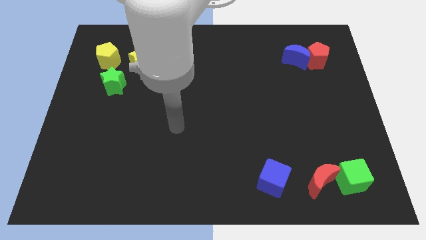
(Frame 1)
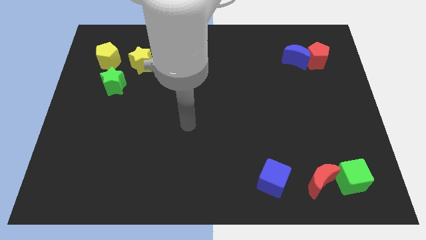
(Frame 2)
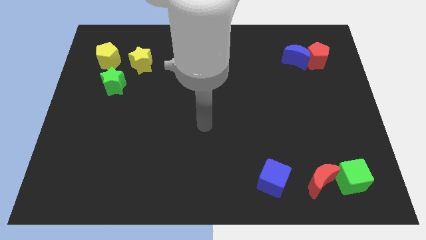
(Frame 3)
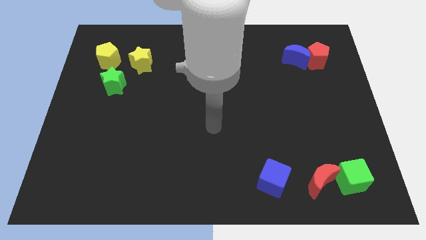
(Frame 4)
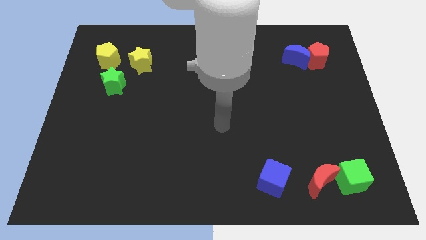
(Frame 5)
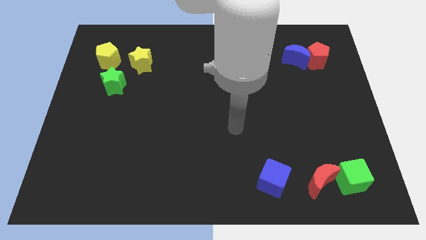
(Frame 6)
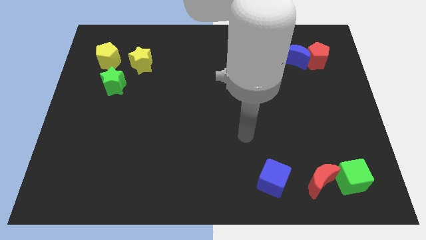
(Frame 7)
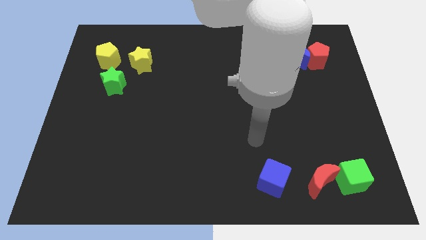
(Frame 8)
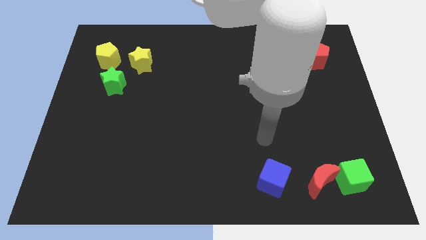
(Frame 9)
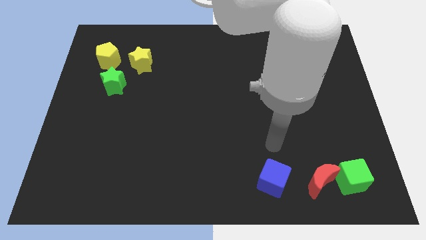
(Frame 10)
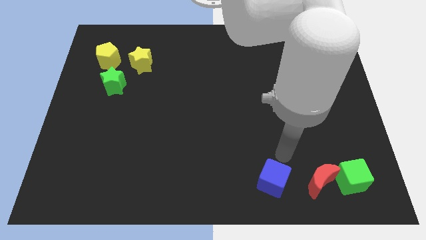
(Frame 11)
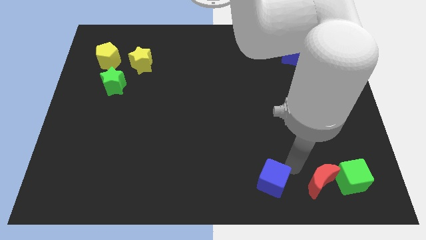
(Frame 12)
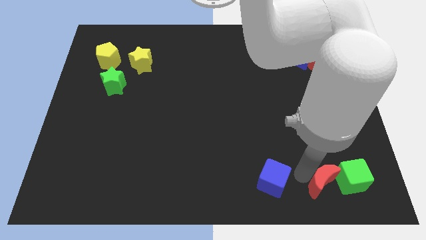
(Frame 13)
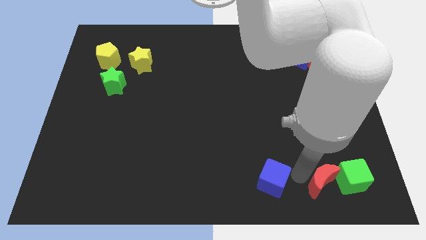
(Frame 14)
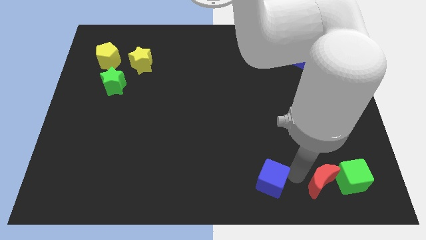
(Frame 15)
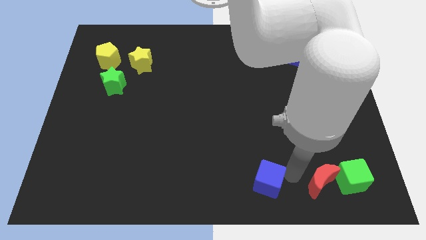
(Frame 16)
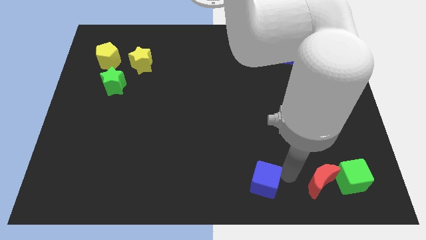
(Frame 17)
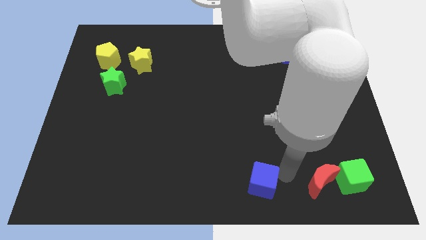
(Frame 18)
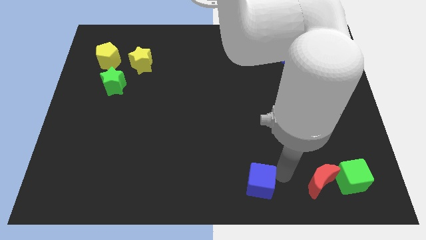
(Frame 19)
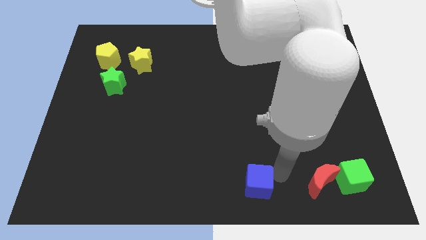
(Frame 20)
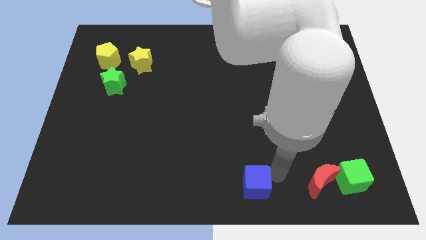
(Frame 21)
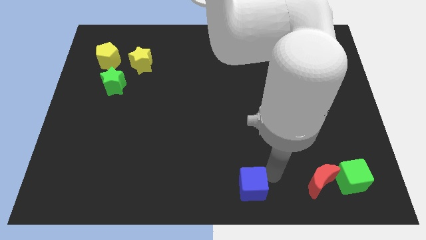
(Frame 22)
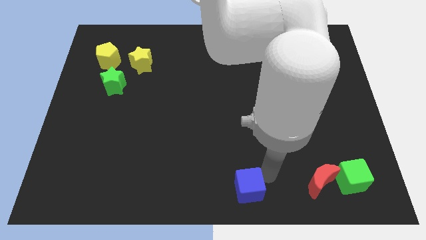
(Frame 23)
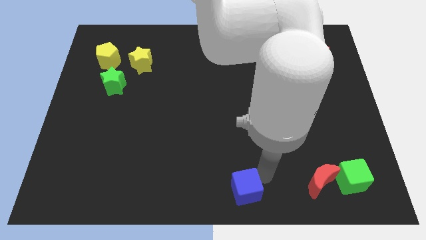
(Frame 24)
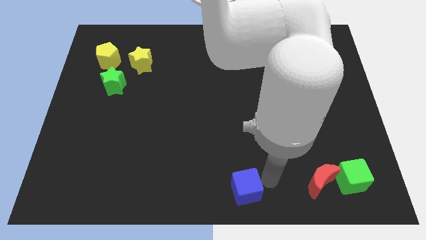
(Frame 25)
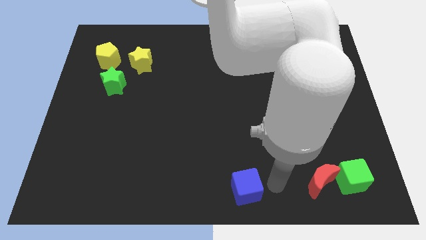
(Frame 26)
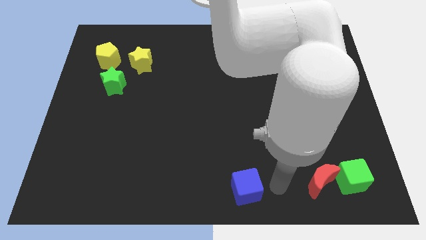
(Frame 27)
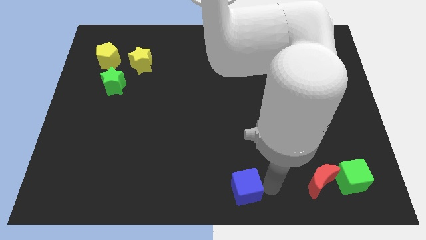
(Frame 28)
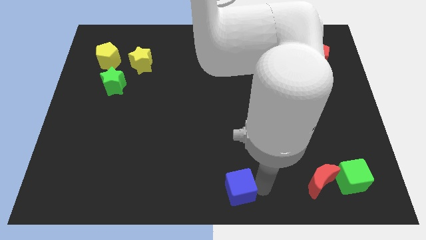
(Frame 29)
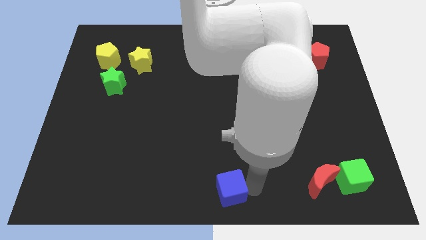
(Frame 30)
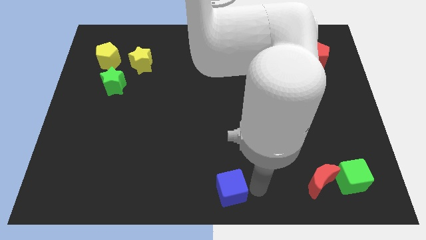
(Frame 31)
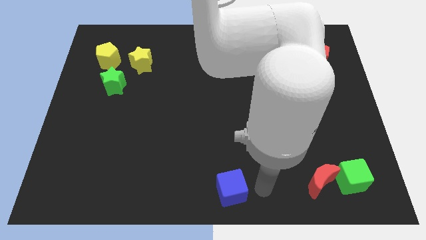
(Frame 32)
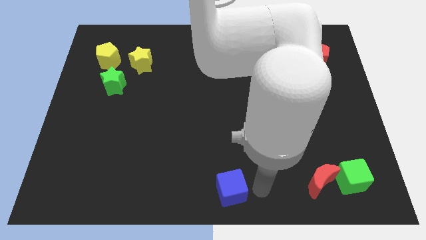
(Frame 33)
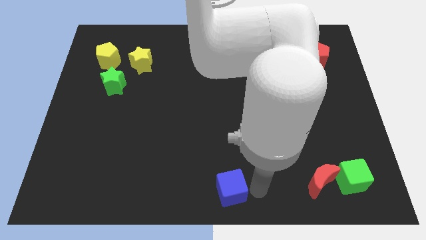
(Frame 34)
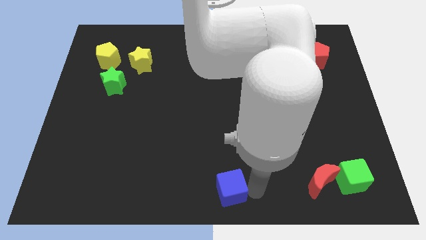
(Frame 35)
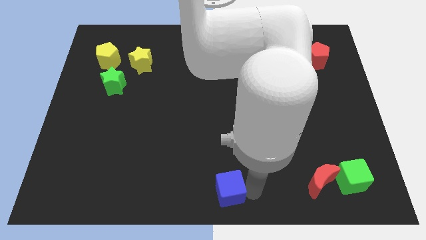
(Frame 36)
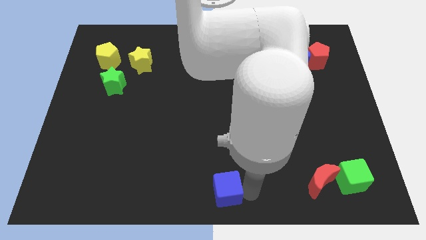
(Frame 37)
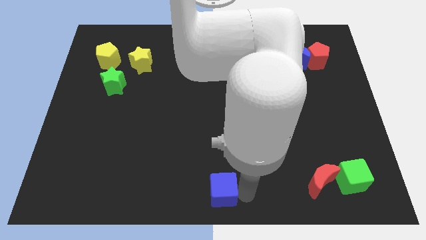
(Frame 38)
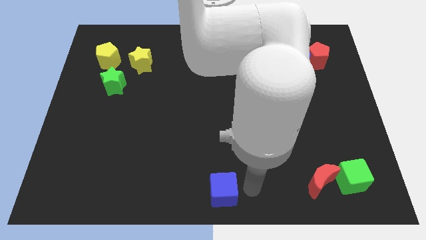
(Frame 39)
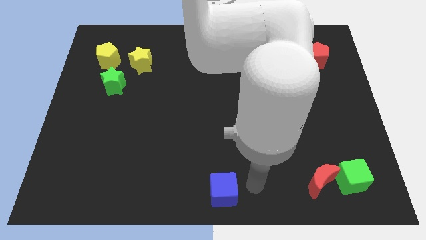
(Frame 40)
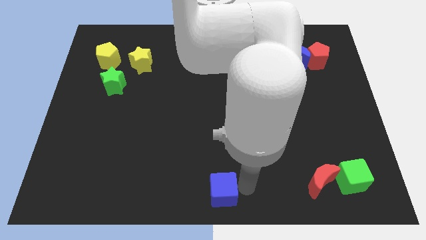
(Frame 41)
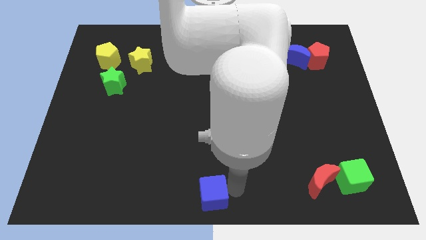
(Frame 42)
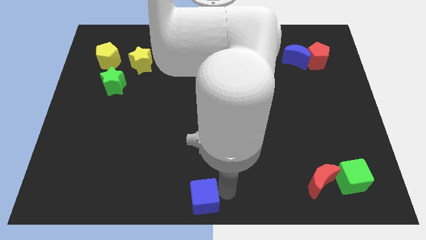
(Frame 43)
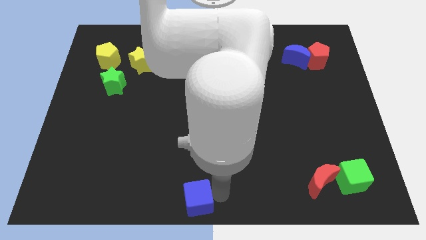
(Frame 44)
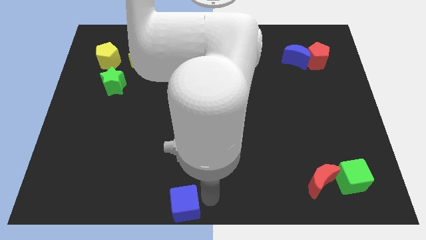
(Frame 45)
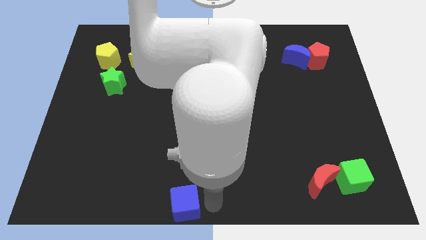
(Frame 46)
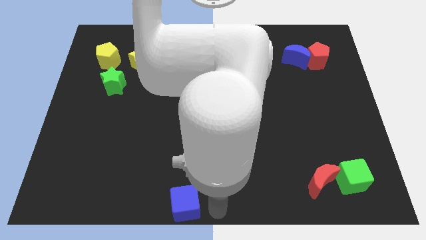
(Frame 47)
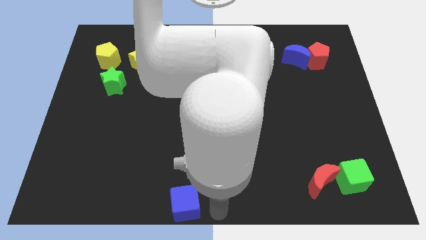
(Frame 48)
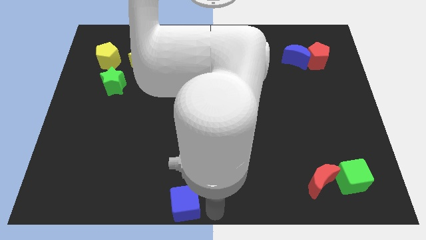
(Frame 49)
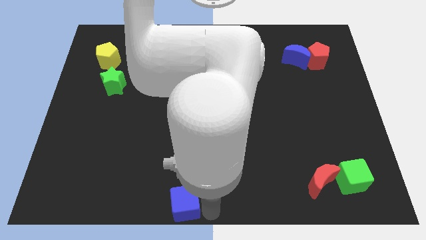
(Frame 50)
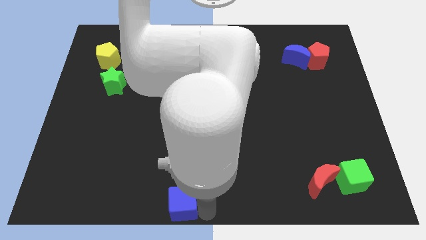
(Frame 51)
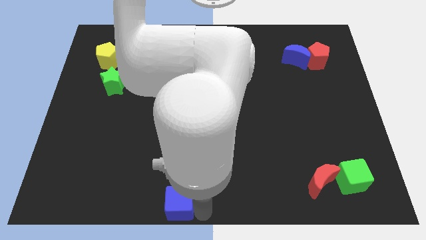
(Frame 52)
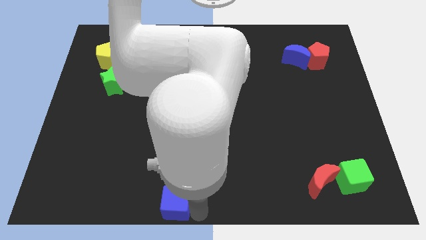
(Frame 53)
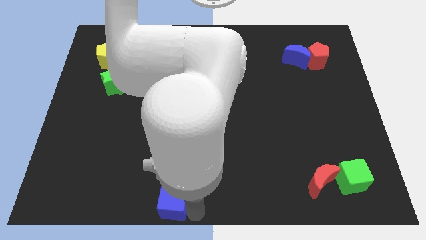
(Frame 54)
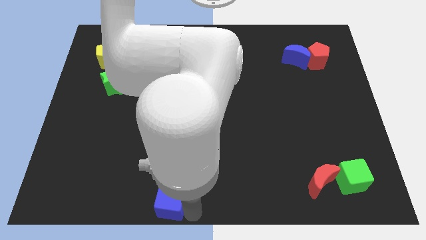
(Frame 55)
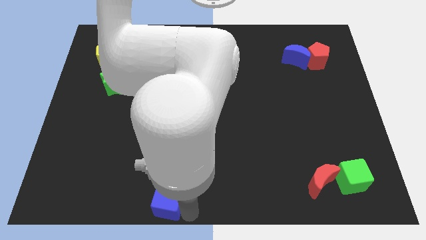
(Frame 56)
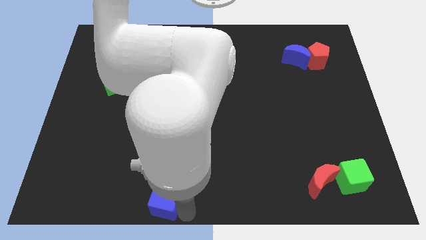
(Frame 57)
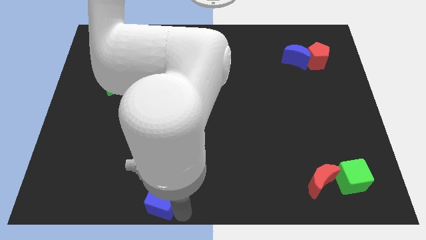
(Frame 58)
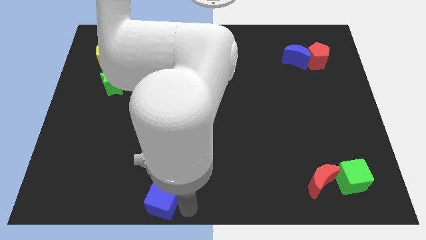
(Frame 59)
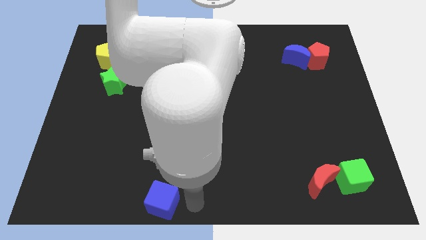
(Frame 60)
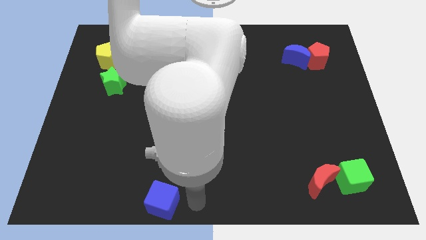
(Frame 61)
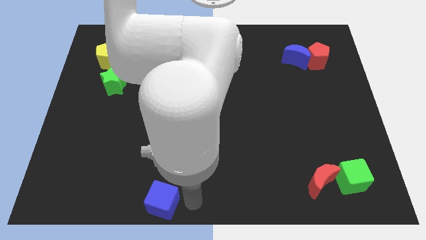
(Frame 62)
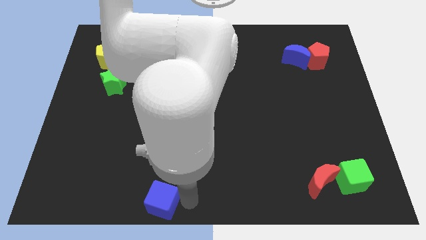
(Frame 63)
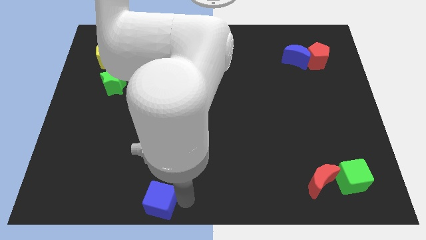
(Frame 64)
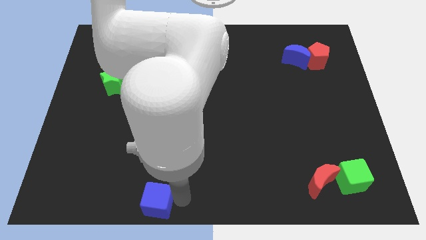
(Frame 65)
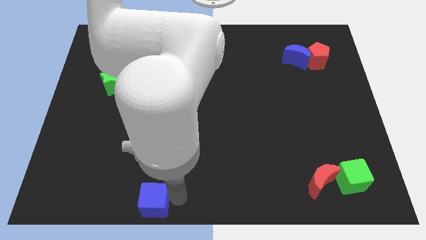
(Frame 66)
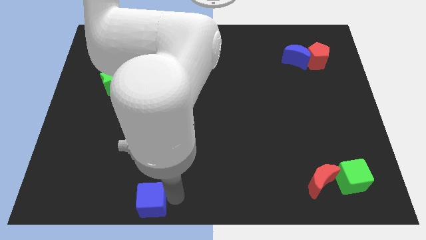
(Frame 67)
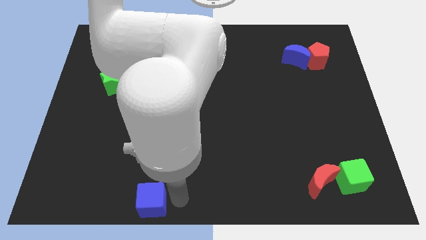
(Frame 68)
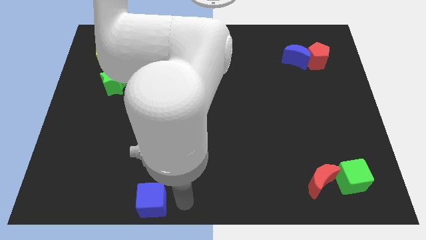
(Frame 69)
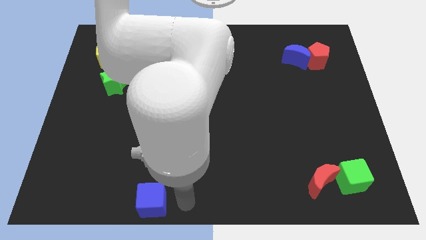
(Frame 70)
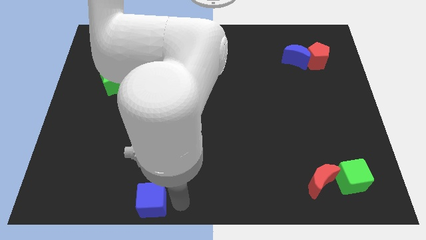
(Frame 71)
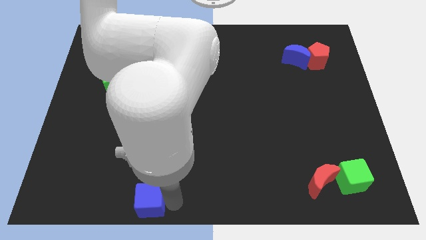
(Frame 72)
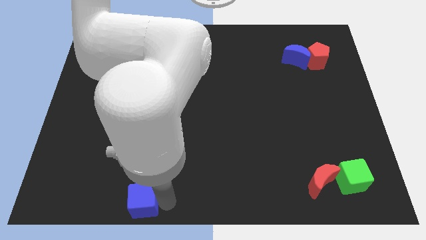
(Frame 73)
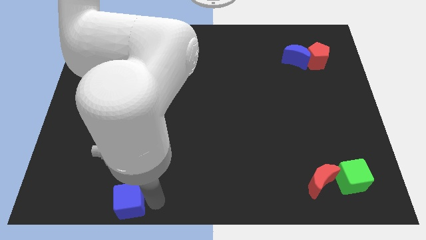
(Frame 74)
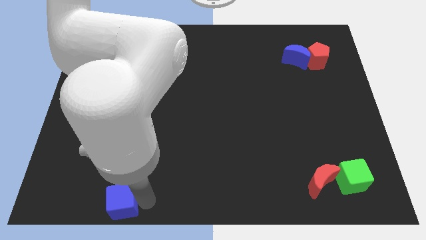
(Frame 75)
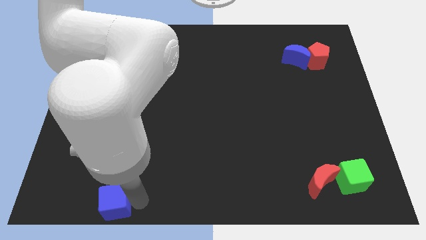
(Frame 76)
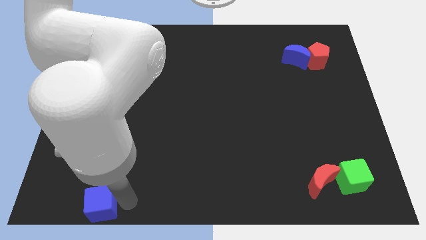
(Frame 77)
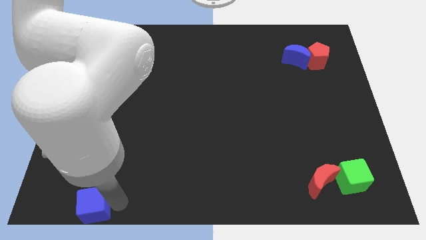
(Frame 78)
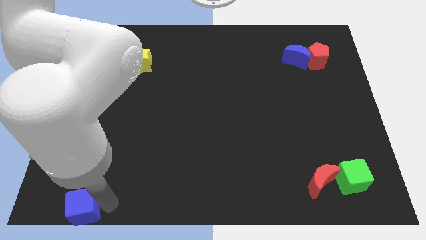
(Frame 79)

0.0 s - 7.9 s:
push the blue cube to the bottom left of the board
